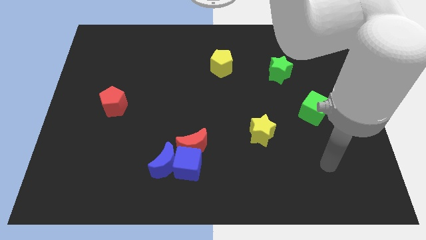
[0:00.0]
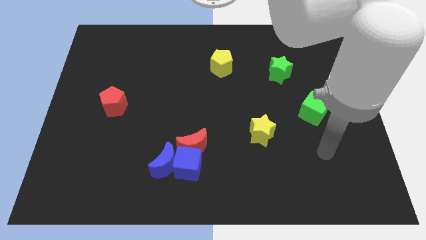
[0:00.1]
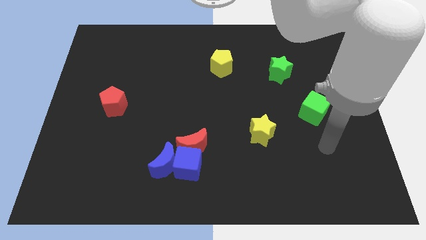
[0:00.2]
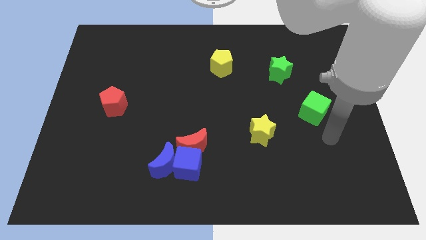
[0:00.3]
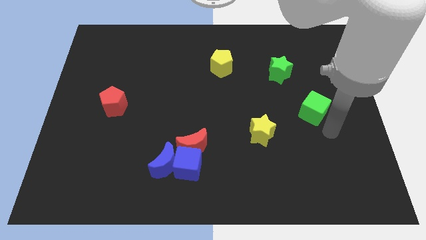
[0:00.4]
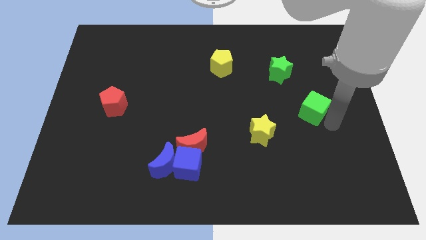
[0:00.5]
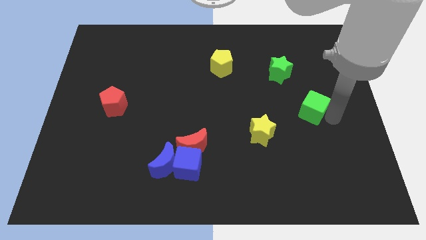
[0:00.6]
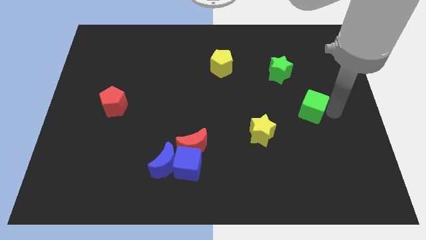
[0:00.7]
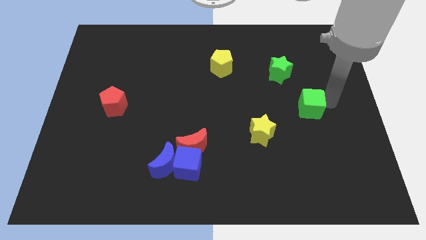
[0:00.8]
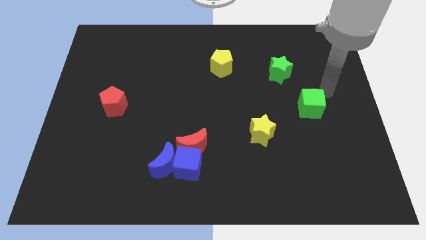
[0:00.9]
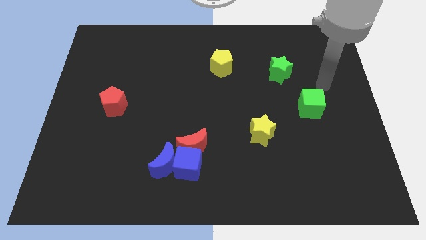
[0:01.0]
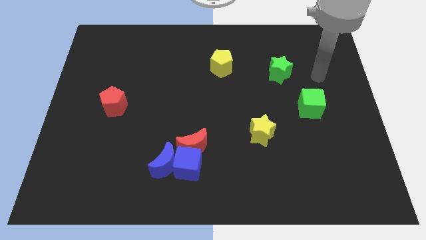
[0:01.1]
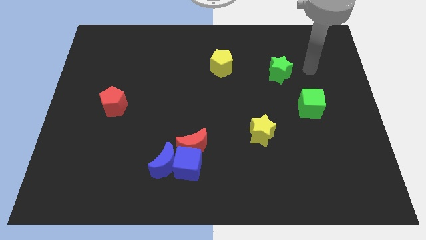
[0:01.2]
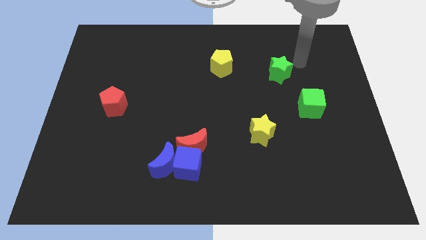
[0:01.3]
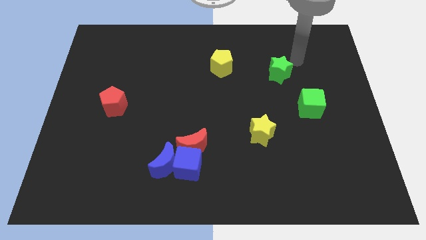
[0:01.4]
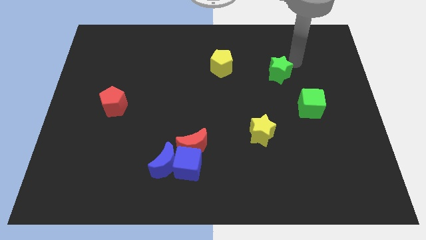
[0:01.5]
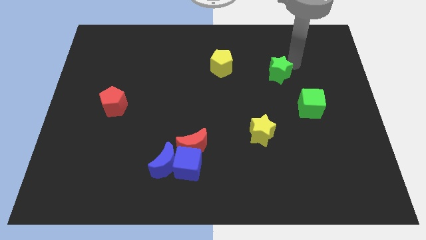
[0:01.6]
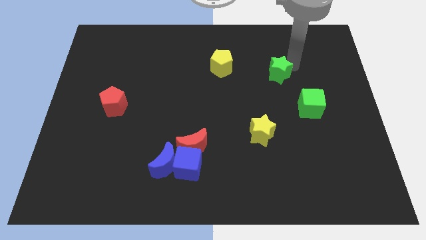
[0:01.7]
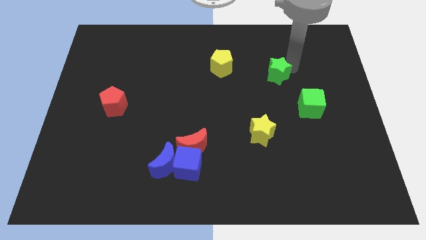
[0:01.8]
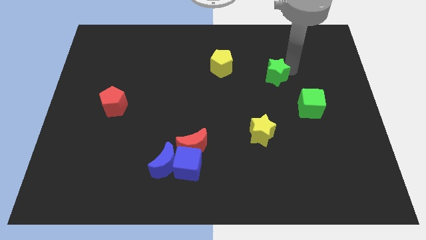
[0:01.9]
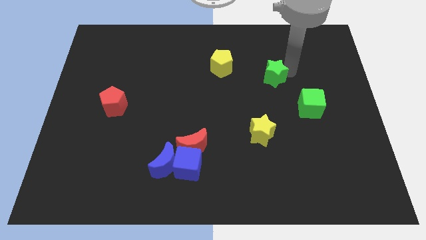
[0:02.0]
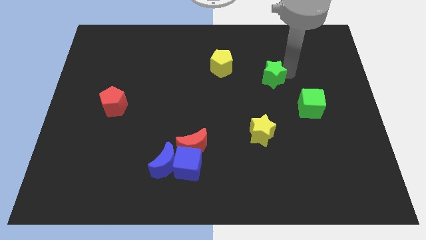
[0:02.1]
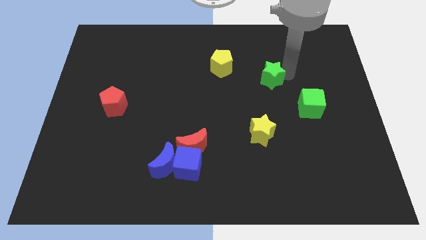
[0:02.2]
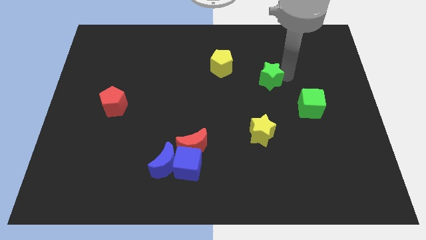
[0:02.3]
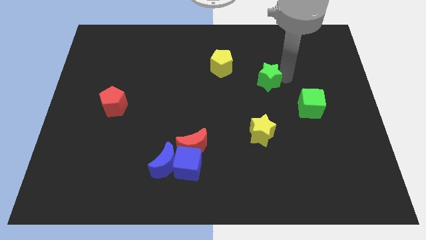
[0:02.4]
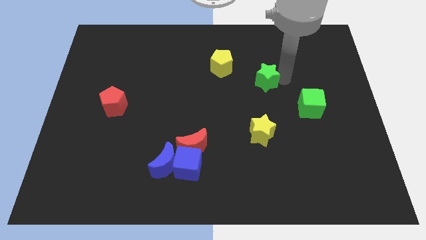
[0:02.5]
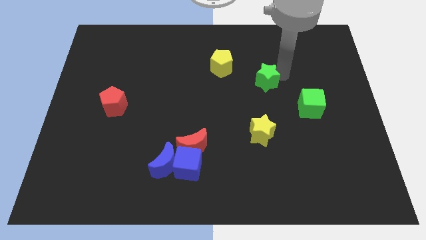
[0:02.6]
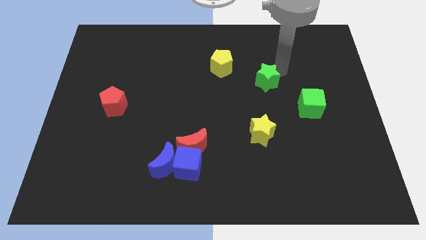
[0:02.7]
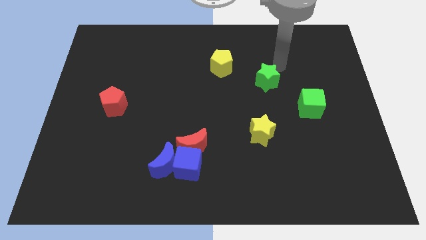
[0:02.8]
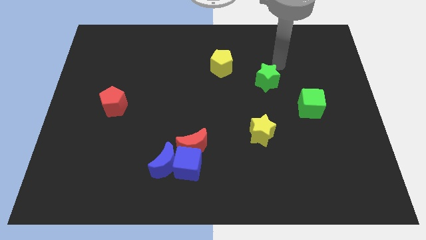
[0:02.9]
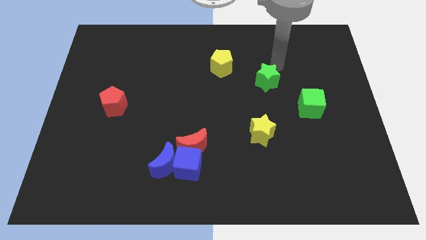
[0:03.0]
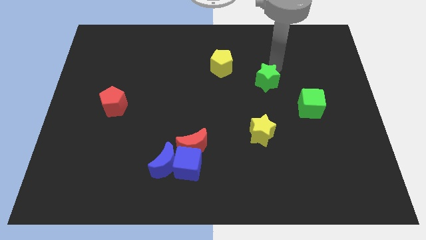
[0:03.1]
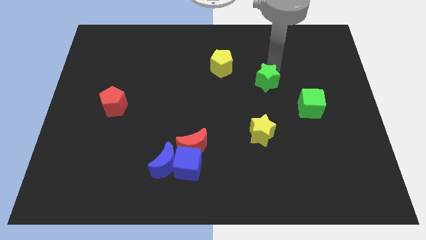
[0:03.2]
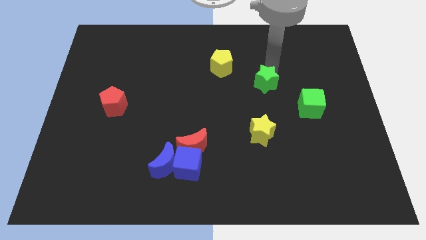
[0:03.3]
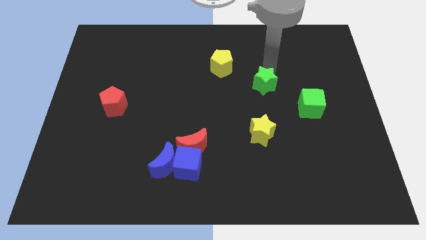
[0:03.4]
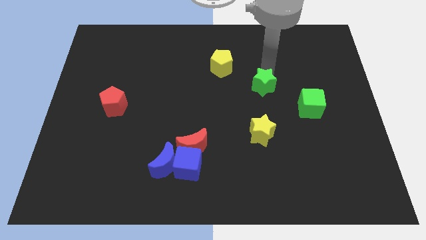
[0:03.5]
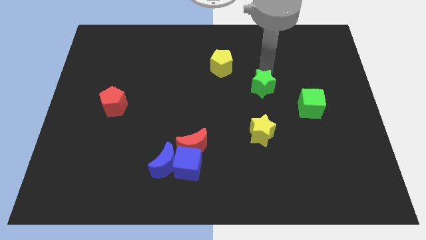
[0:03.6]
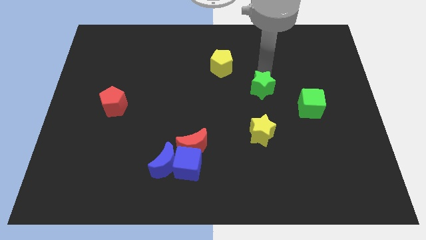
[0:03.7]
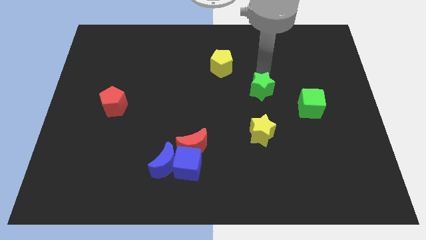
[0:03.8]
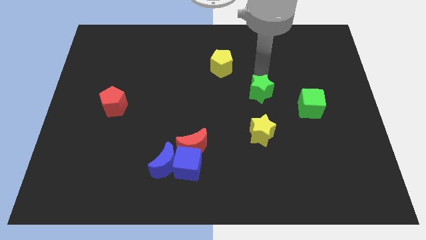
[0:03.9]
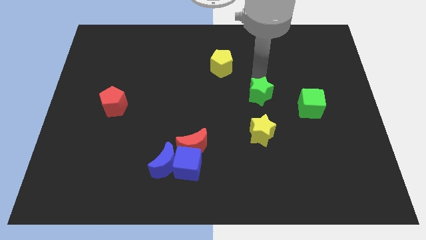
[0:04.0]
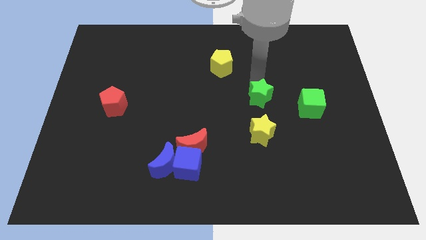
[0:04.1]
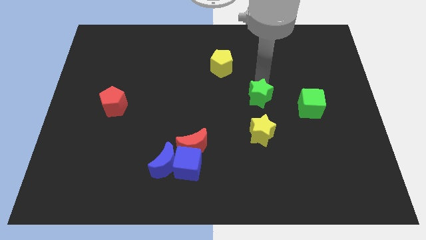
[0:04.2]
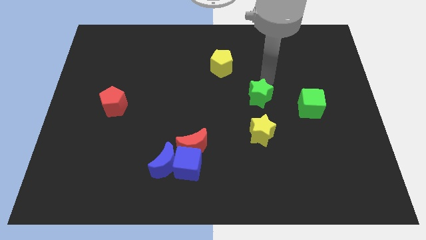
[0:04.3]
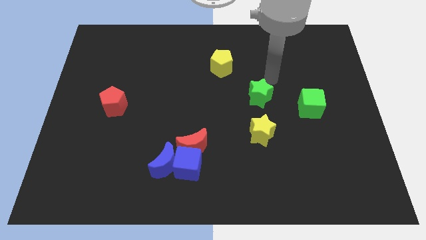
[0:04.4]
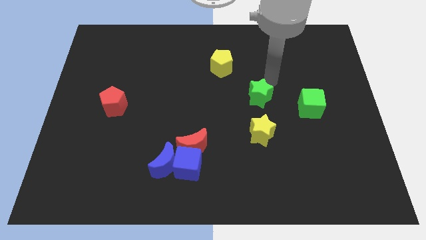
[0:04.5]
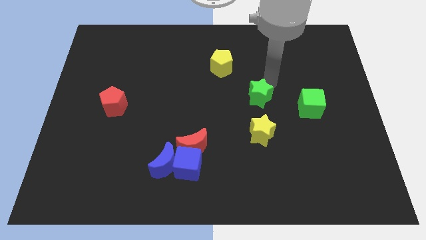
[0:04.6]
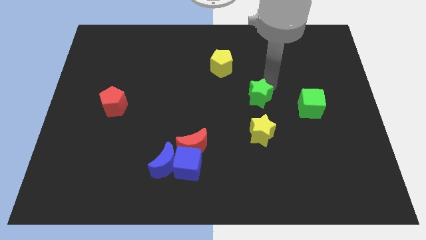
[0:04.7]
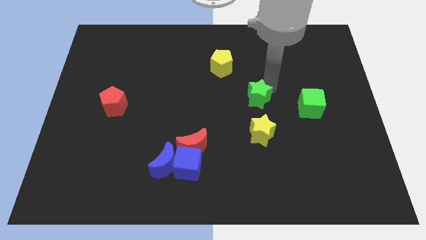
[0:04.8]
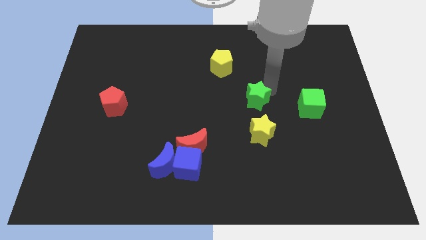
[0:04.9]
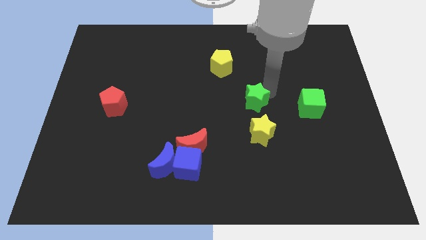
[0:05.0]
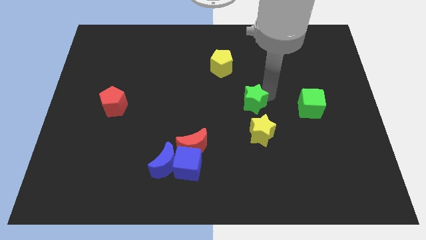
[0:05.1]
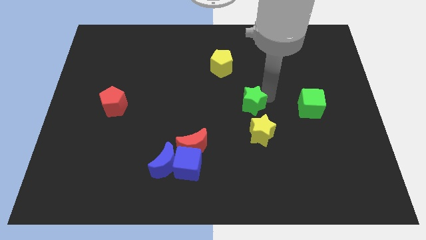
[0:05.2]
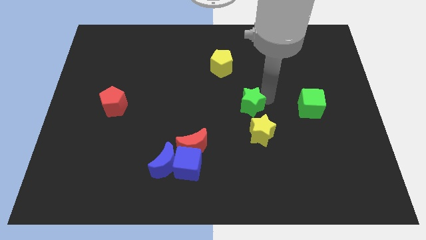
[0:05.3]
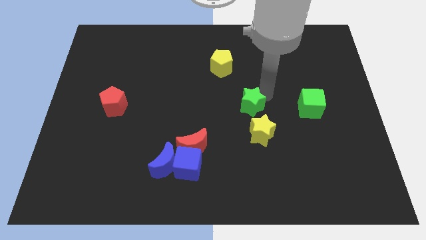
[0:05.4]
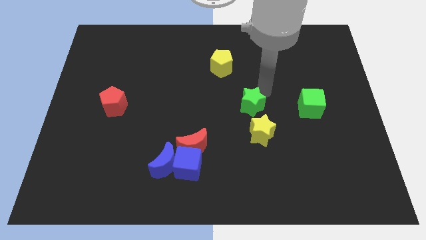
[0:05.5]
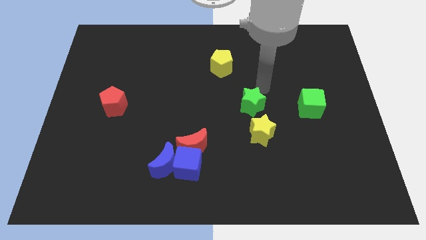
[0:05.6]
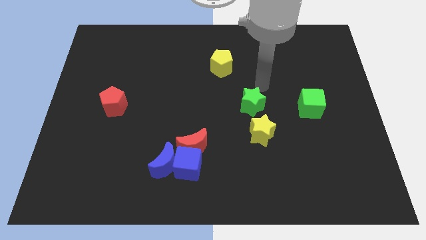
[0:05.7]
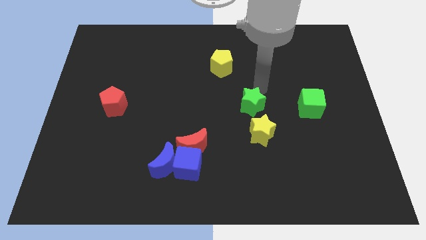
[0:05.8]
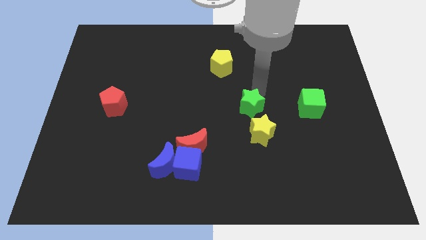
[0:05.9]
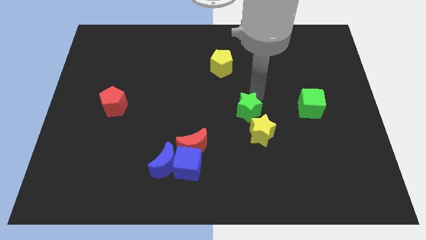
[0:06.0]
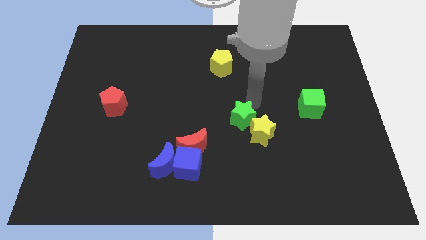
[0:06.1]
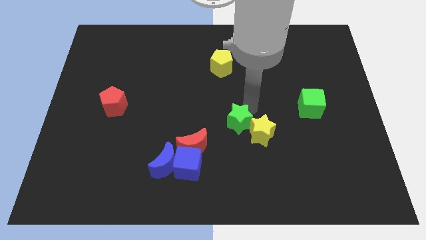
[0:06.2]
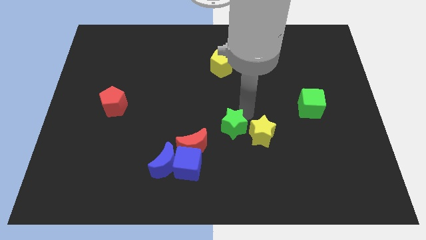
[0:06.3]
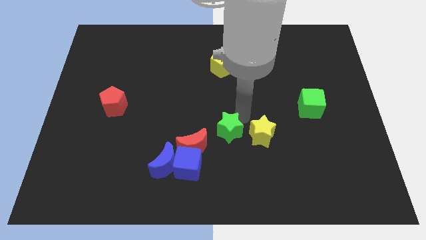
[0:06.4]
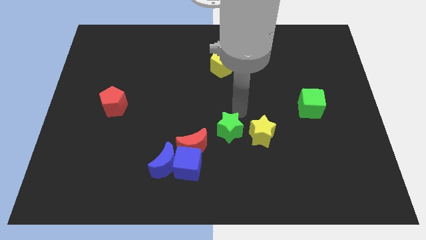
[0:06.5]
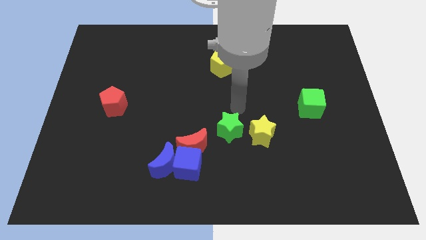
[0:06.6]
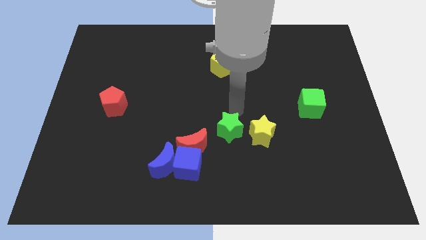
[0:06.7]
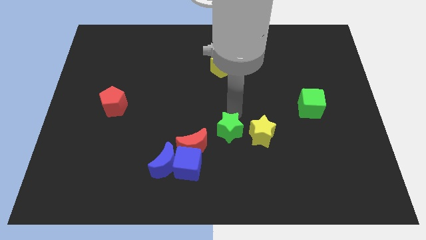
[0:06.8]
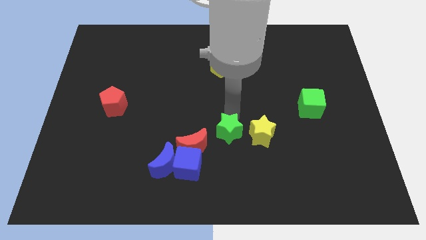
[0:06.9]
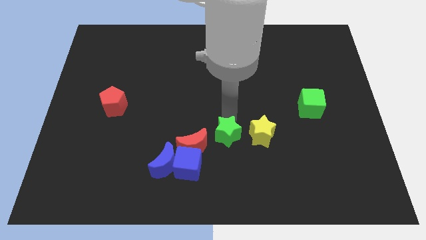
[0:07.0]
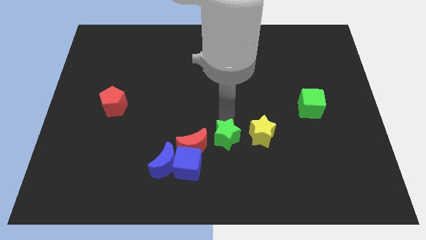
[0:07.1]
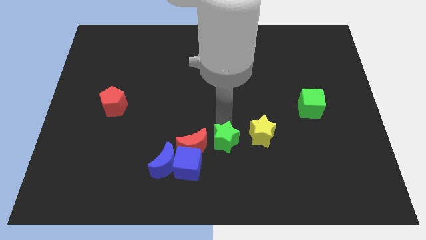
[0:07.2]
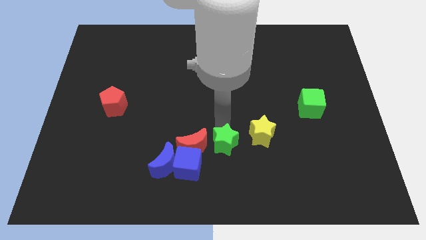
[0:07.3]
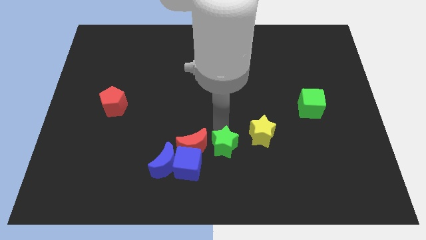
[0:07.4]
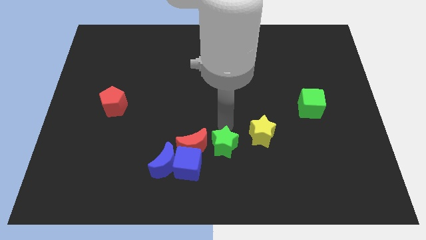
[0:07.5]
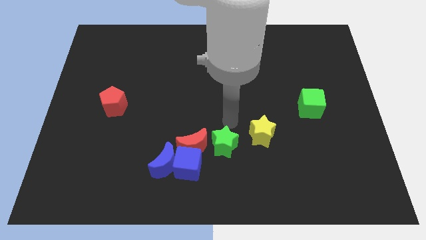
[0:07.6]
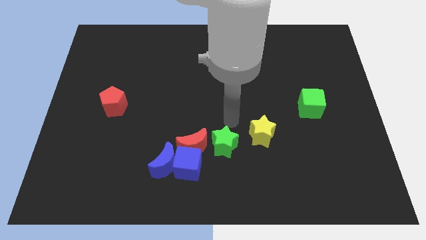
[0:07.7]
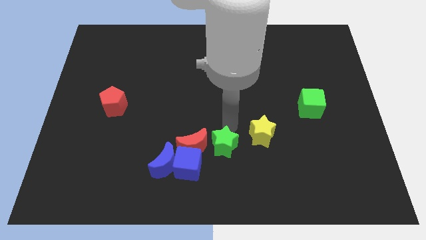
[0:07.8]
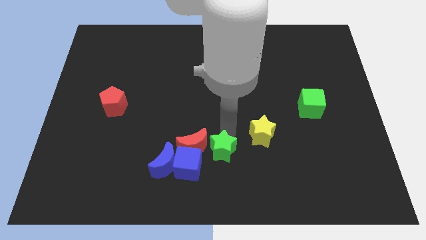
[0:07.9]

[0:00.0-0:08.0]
slide the green star to the bottom right of the red moon
